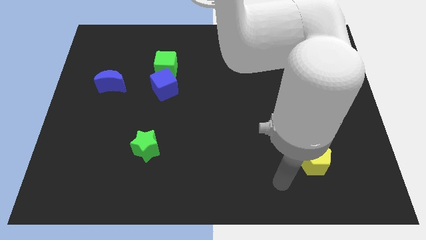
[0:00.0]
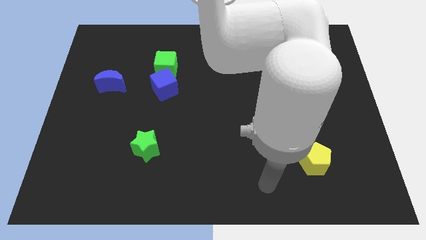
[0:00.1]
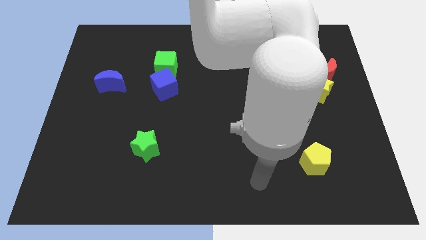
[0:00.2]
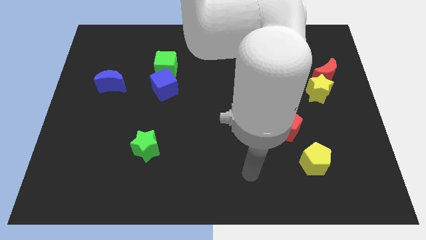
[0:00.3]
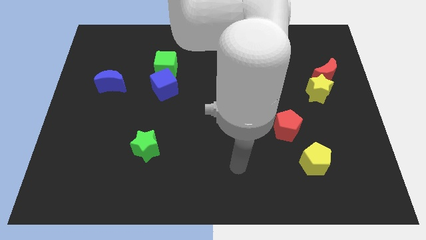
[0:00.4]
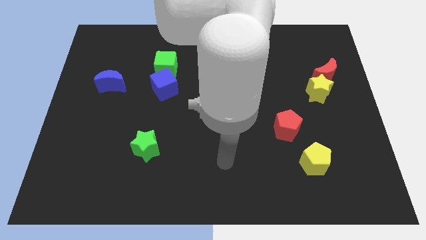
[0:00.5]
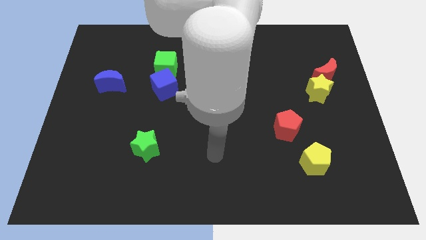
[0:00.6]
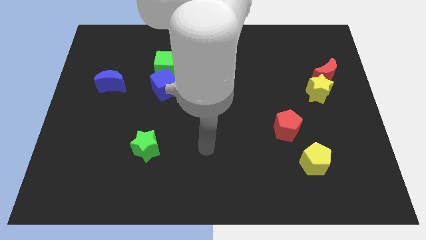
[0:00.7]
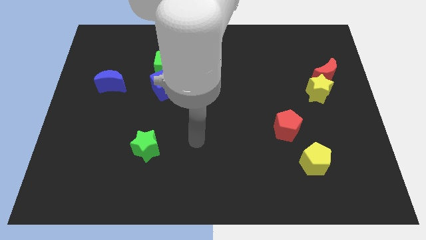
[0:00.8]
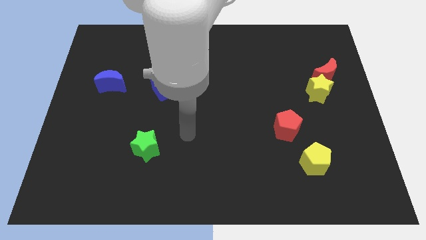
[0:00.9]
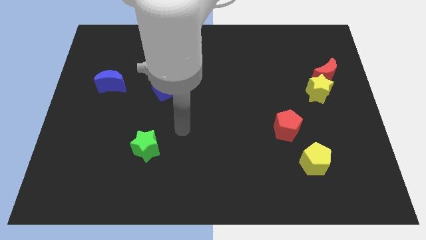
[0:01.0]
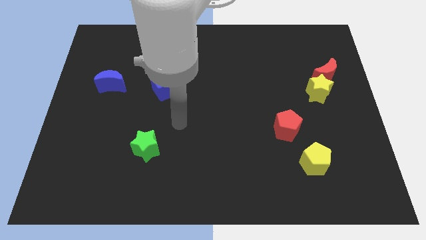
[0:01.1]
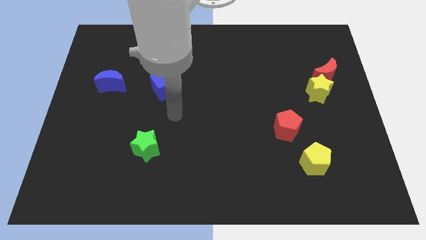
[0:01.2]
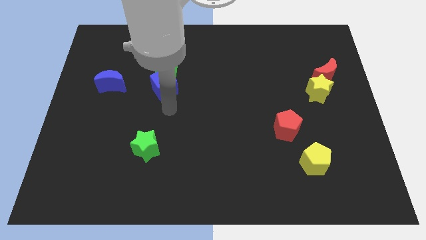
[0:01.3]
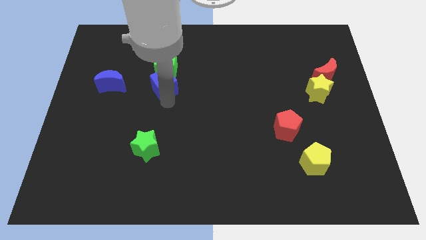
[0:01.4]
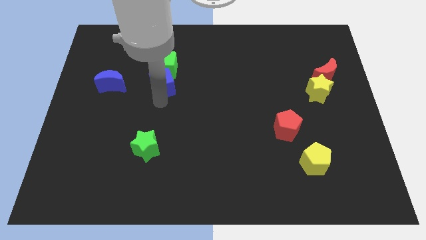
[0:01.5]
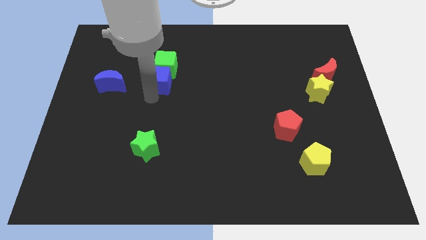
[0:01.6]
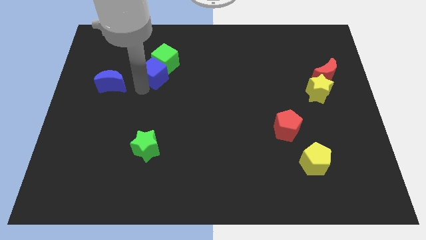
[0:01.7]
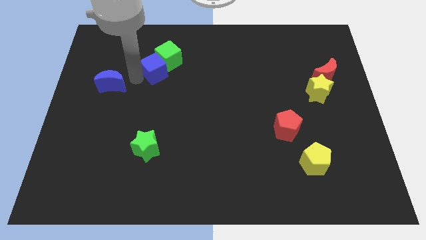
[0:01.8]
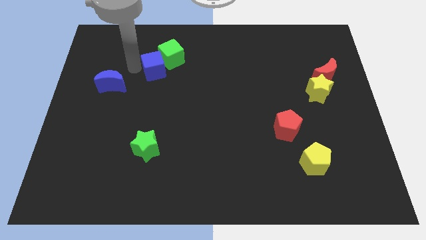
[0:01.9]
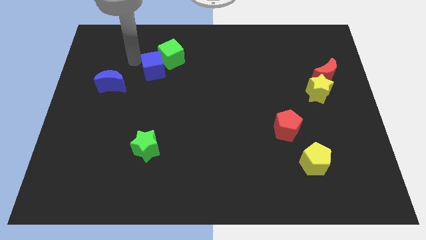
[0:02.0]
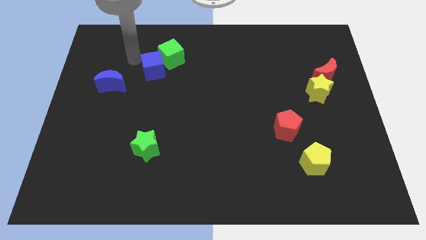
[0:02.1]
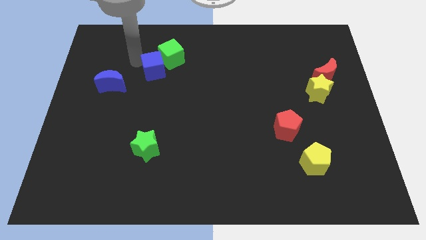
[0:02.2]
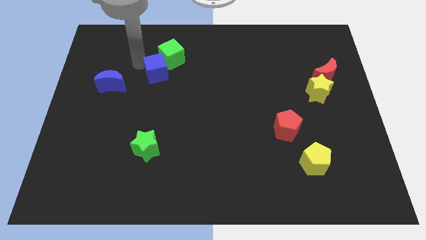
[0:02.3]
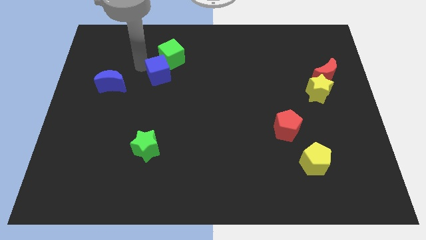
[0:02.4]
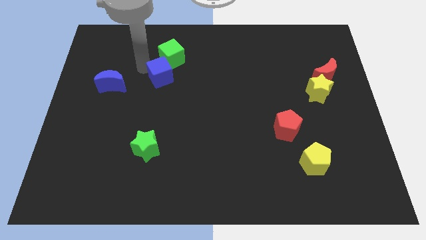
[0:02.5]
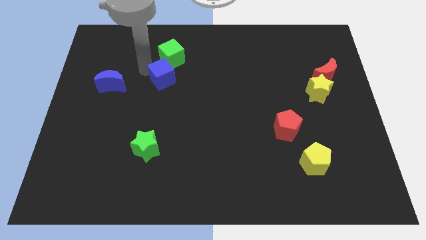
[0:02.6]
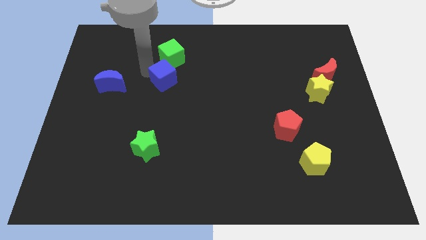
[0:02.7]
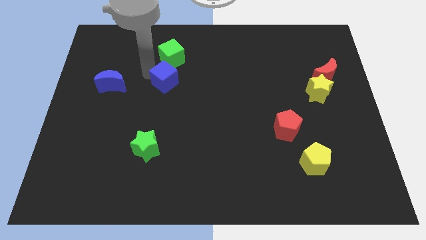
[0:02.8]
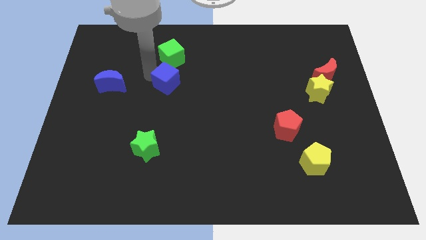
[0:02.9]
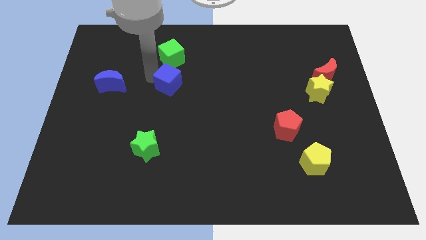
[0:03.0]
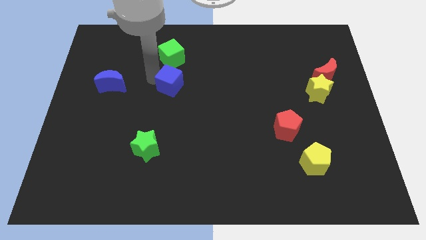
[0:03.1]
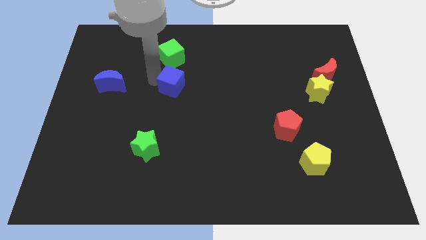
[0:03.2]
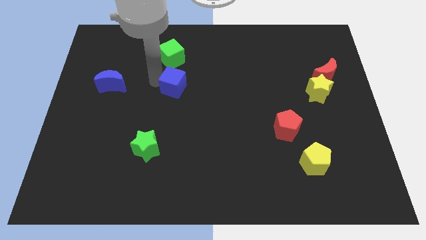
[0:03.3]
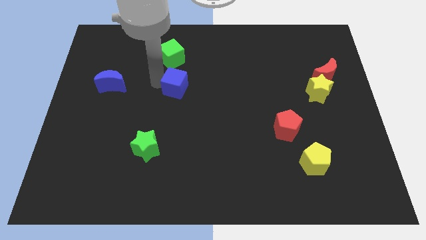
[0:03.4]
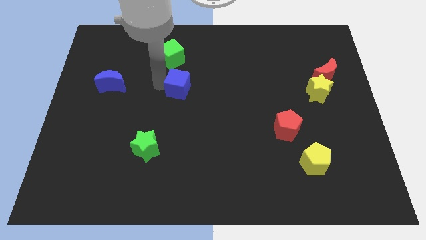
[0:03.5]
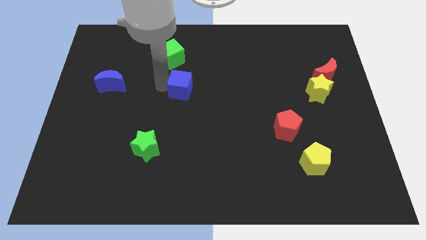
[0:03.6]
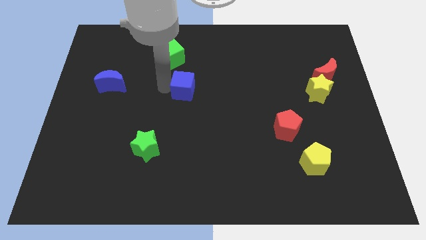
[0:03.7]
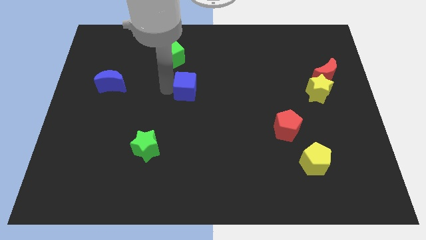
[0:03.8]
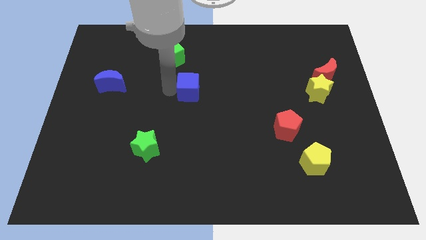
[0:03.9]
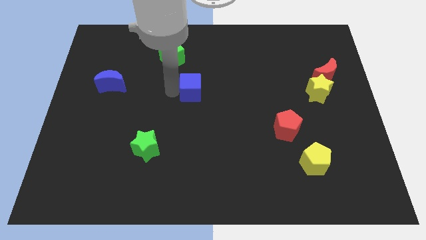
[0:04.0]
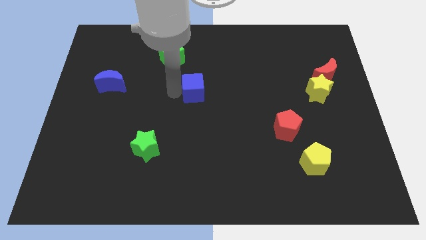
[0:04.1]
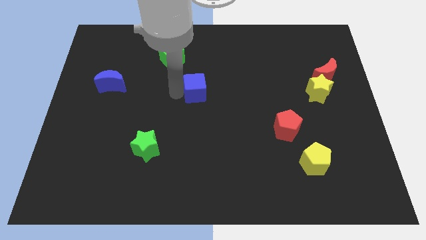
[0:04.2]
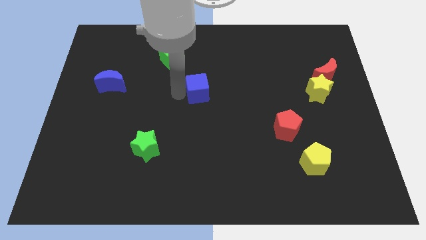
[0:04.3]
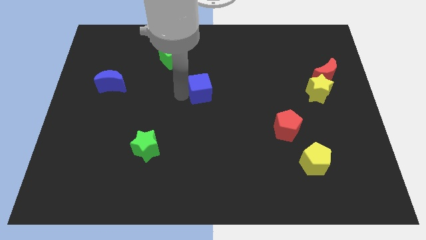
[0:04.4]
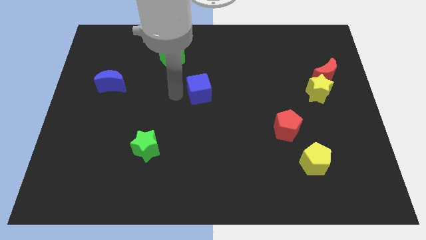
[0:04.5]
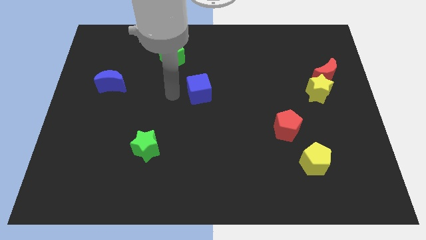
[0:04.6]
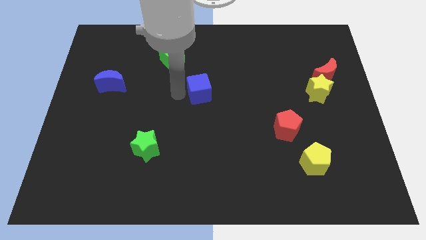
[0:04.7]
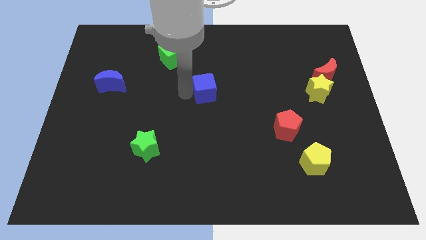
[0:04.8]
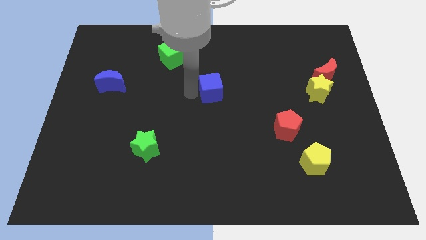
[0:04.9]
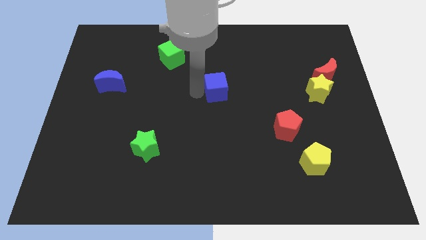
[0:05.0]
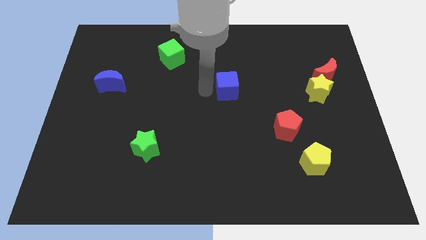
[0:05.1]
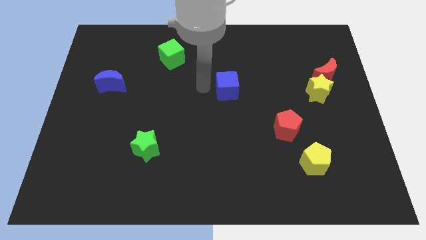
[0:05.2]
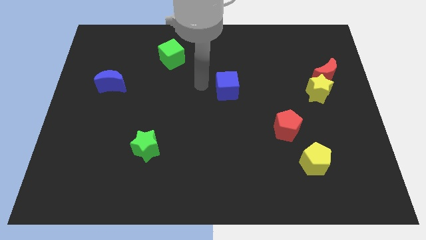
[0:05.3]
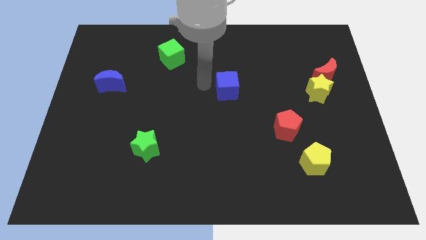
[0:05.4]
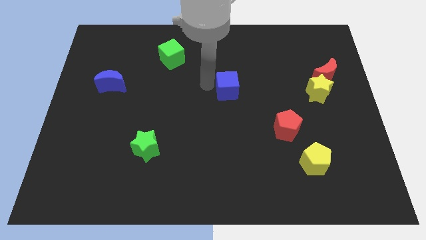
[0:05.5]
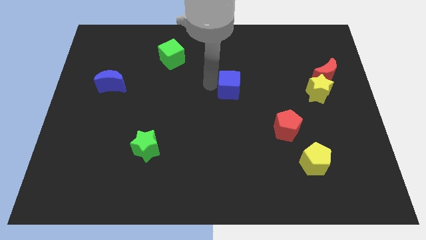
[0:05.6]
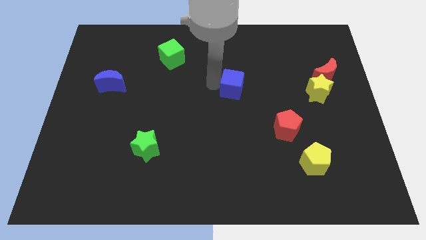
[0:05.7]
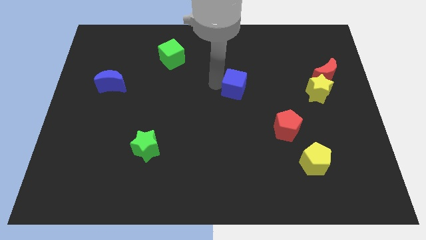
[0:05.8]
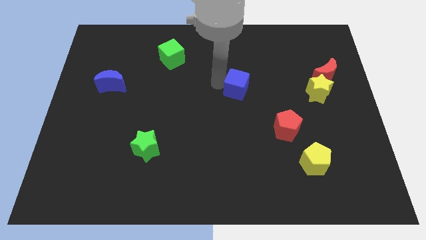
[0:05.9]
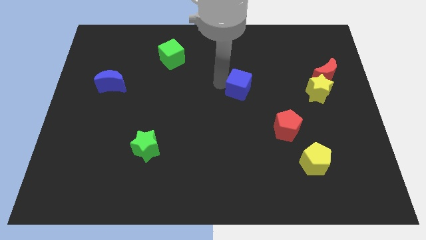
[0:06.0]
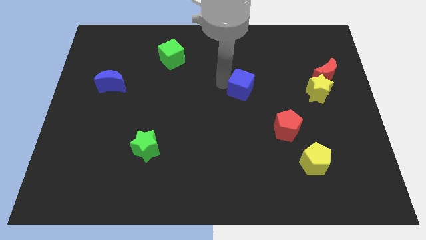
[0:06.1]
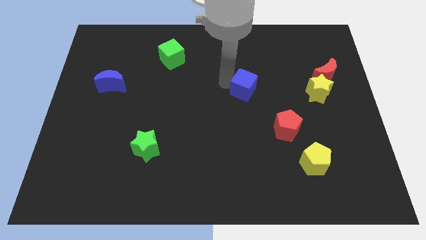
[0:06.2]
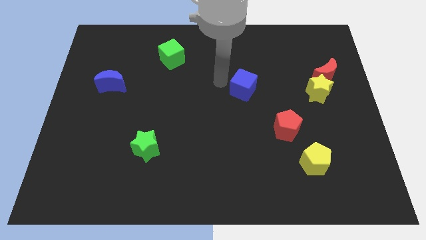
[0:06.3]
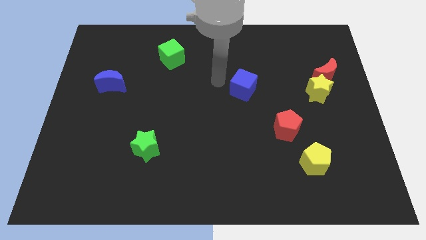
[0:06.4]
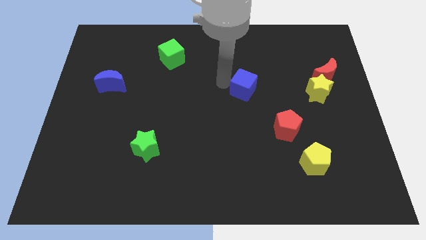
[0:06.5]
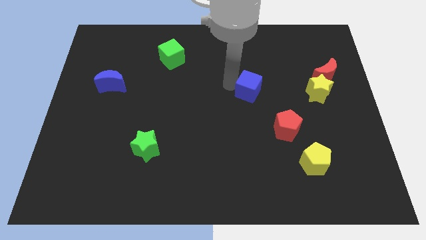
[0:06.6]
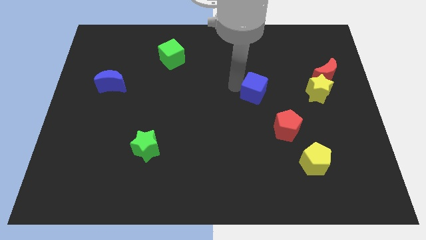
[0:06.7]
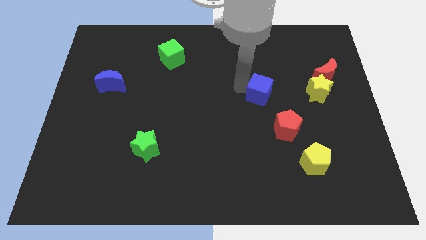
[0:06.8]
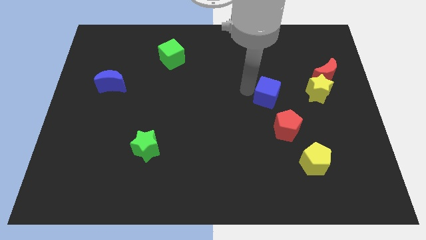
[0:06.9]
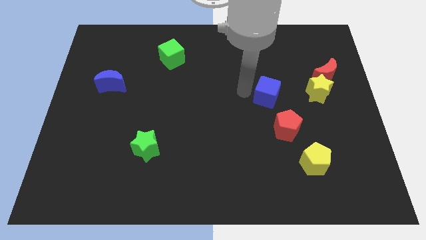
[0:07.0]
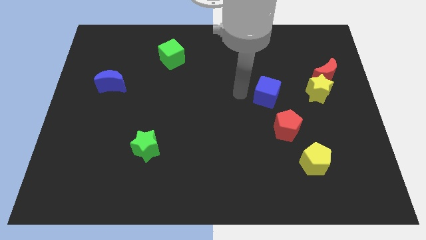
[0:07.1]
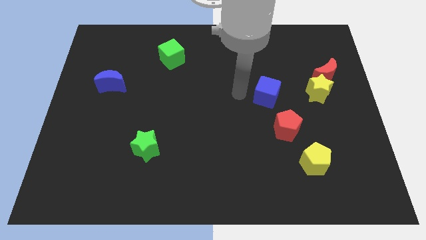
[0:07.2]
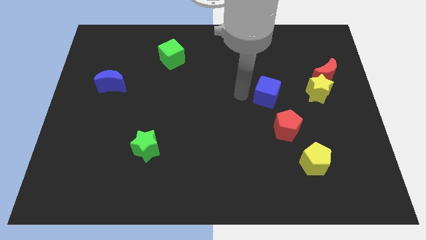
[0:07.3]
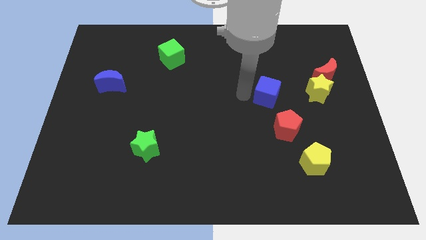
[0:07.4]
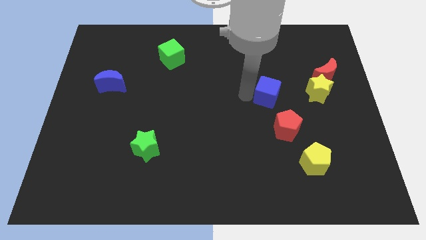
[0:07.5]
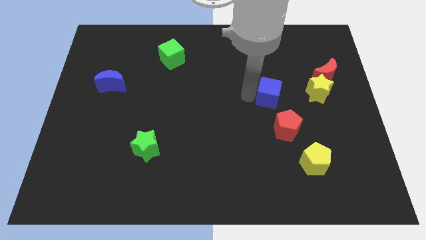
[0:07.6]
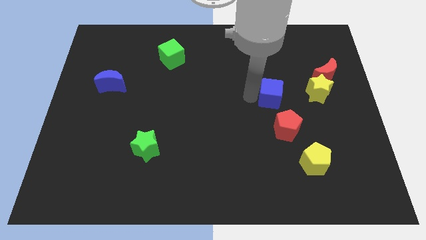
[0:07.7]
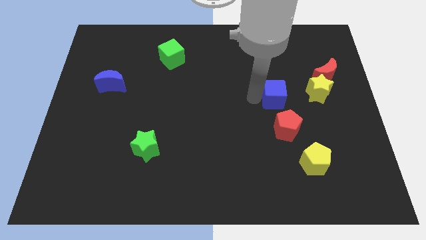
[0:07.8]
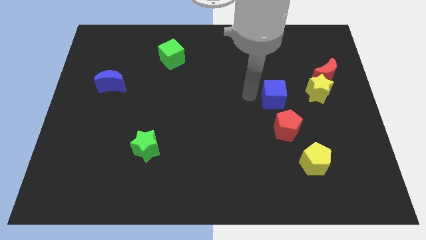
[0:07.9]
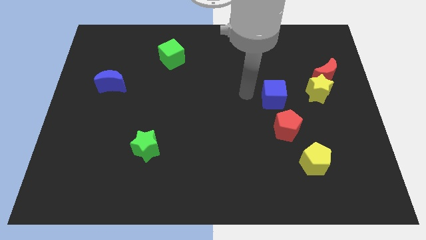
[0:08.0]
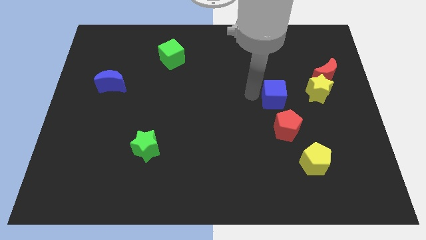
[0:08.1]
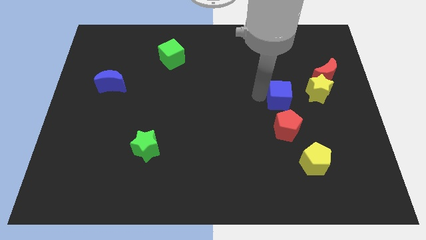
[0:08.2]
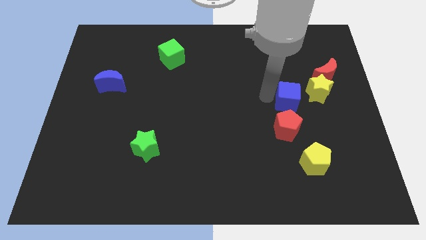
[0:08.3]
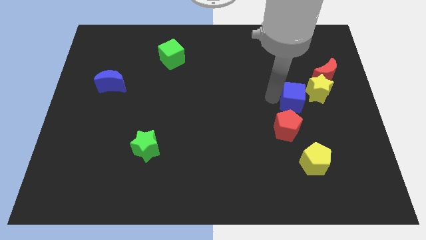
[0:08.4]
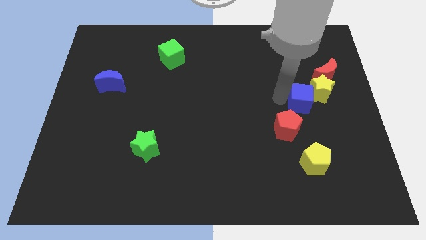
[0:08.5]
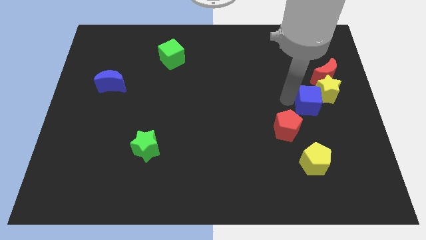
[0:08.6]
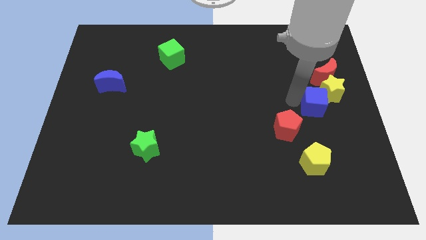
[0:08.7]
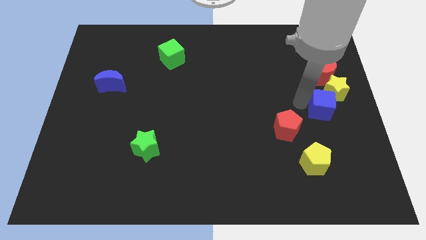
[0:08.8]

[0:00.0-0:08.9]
slide the blue cube to the center right
